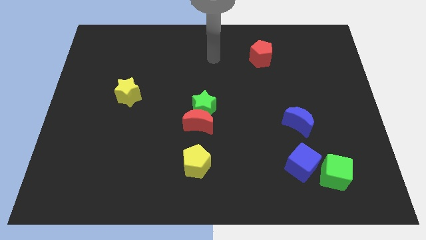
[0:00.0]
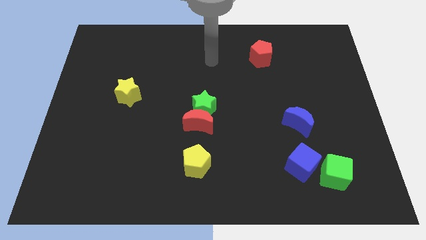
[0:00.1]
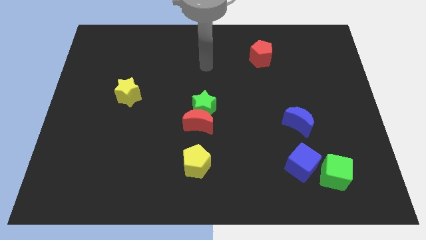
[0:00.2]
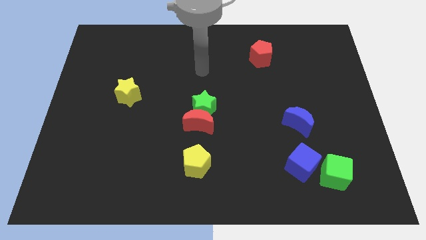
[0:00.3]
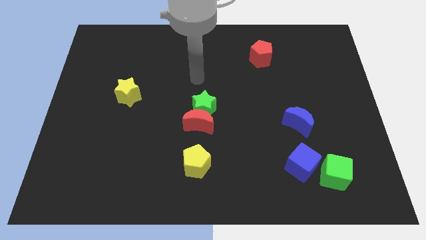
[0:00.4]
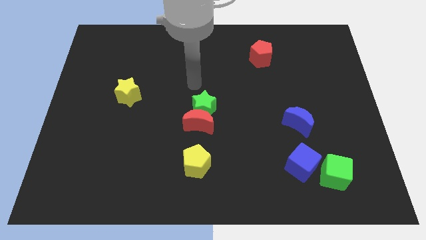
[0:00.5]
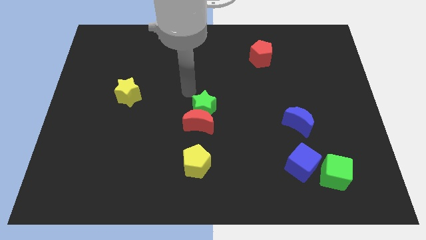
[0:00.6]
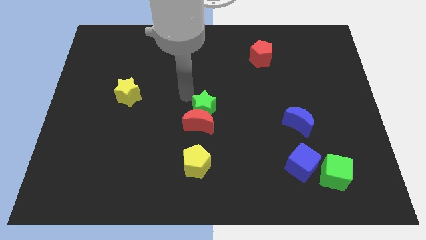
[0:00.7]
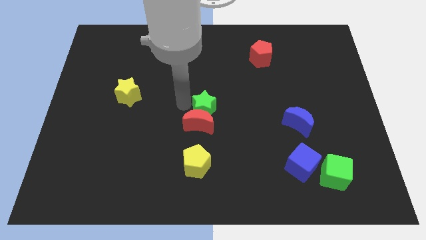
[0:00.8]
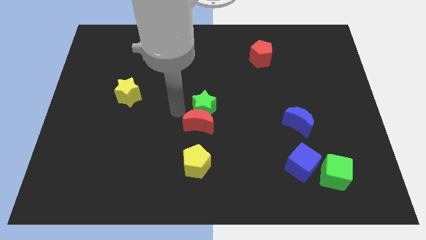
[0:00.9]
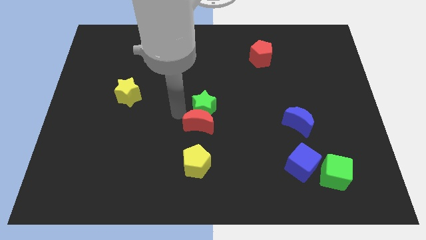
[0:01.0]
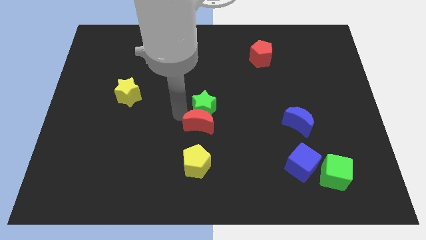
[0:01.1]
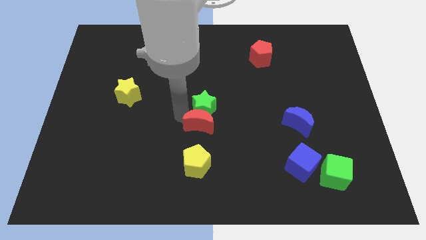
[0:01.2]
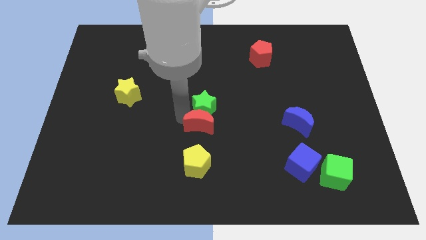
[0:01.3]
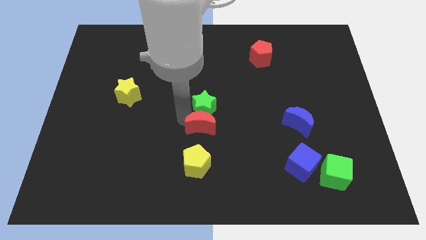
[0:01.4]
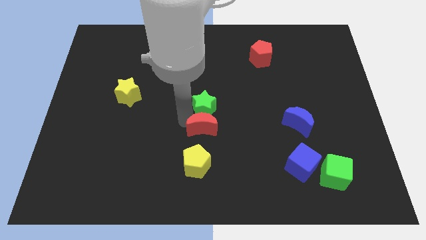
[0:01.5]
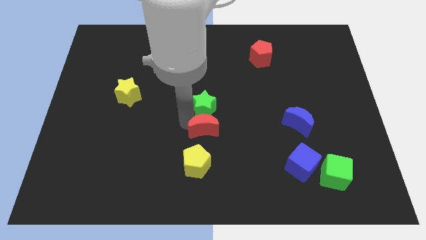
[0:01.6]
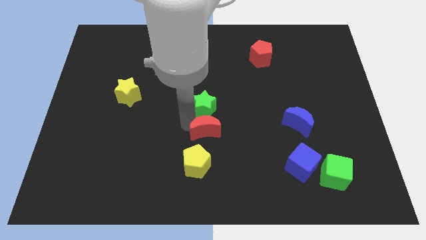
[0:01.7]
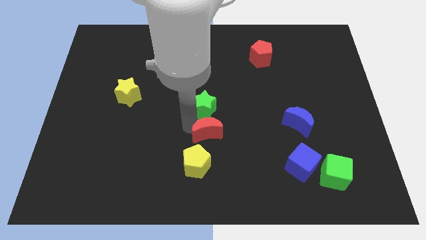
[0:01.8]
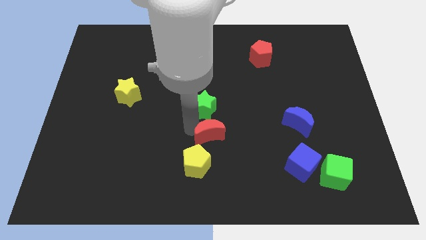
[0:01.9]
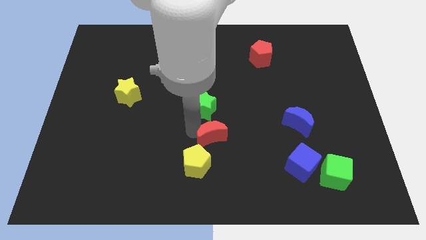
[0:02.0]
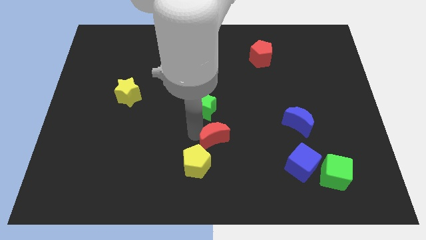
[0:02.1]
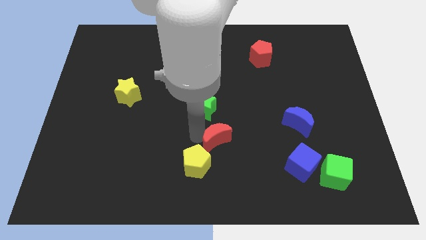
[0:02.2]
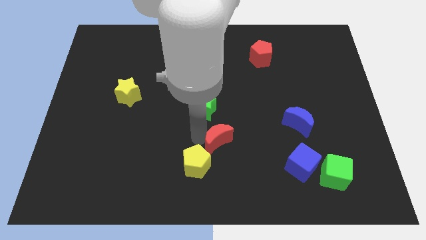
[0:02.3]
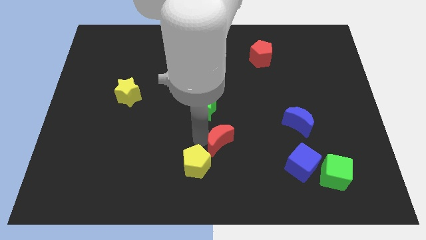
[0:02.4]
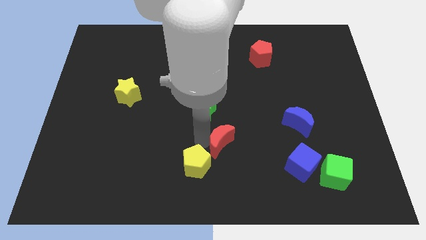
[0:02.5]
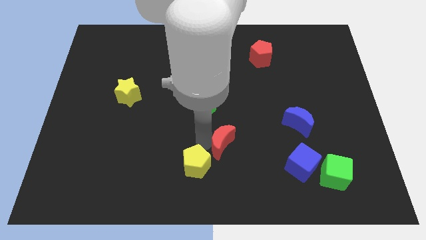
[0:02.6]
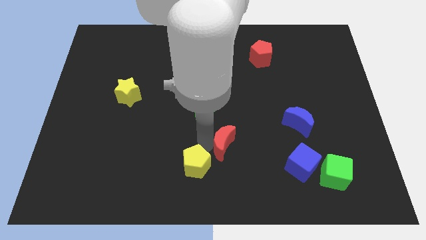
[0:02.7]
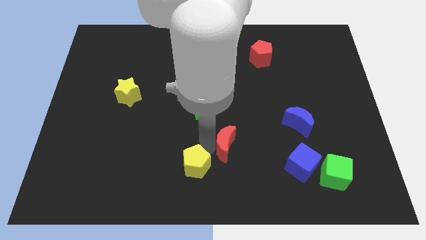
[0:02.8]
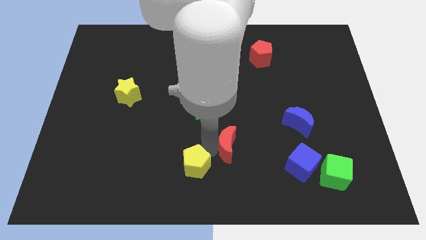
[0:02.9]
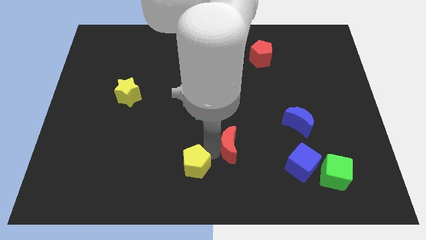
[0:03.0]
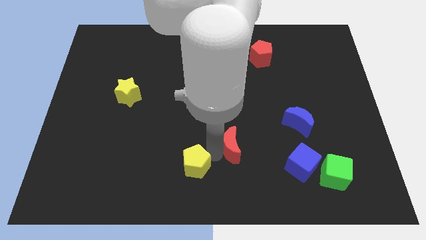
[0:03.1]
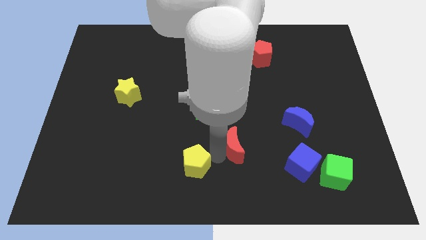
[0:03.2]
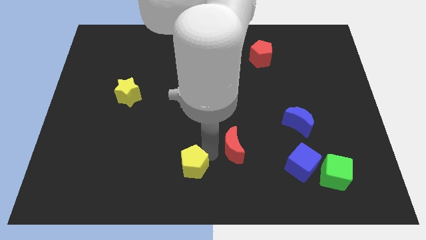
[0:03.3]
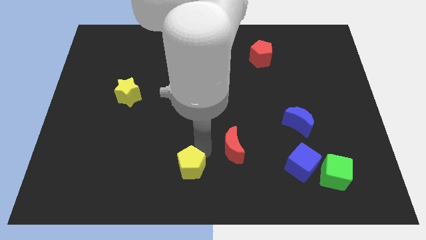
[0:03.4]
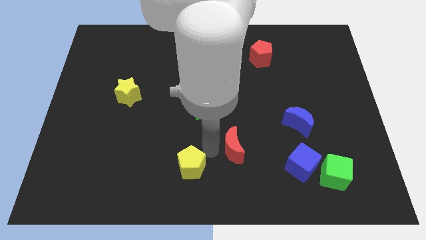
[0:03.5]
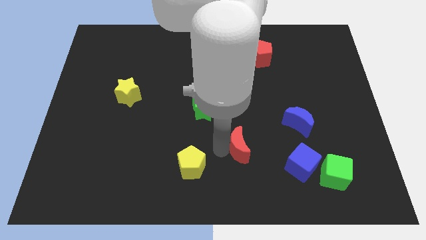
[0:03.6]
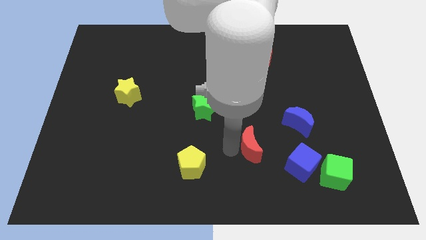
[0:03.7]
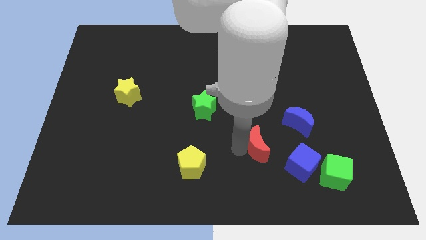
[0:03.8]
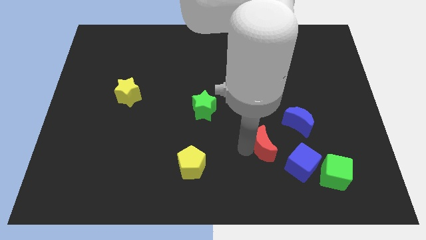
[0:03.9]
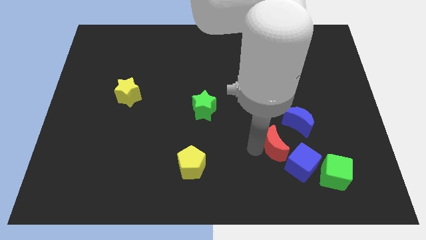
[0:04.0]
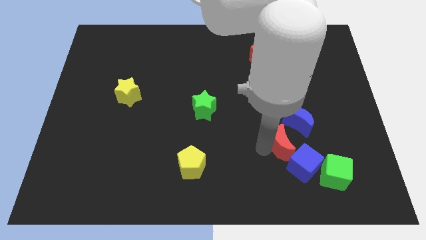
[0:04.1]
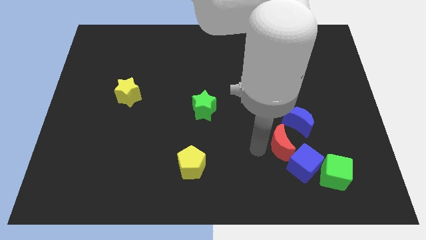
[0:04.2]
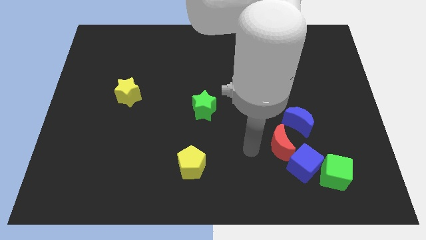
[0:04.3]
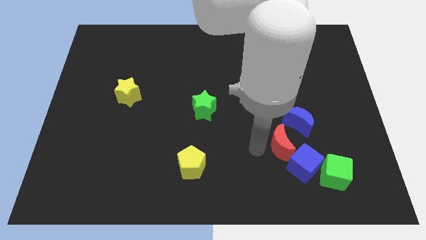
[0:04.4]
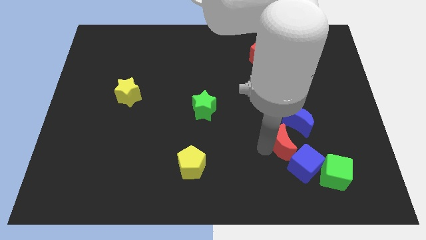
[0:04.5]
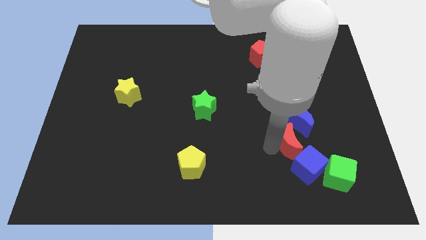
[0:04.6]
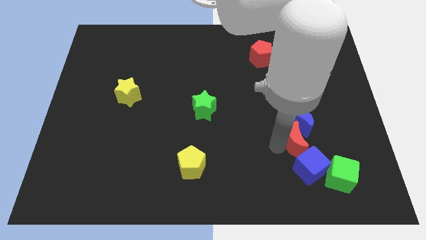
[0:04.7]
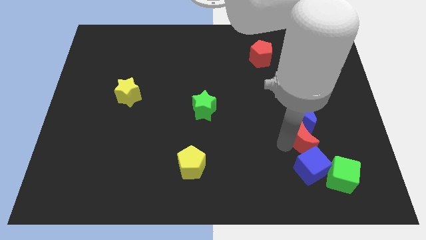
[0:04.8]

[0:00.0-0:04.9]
move the red moon to the bottom right of the blue moon

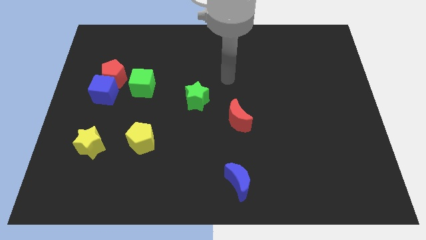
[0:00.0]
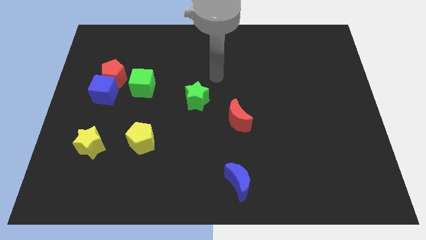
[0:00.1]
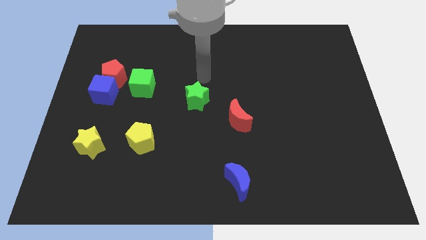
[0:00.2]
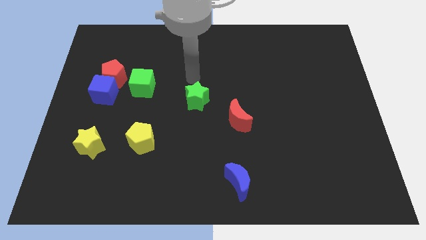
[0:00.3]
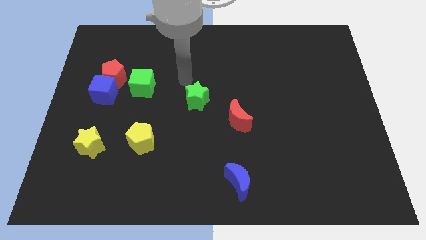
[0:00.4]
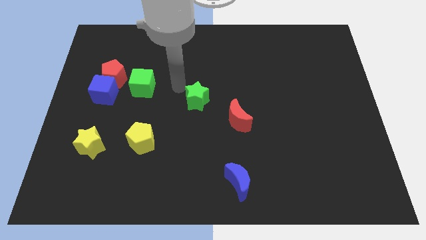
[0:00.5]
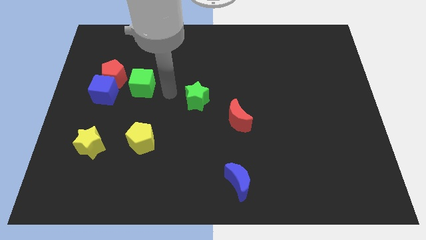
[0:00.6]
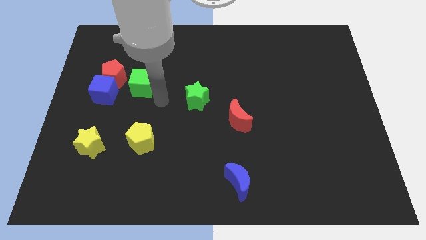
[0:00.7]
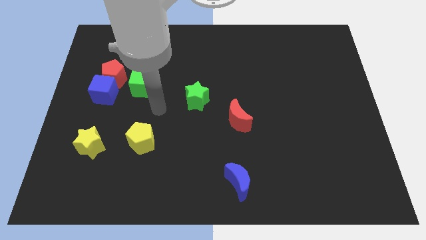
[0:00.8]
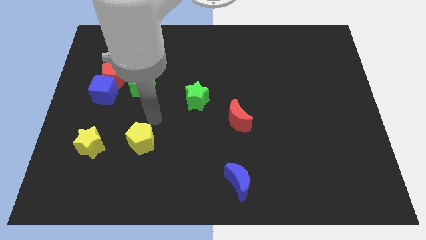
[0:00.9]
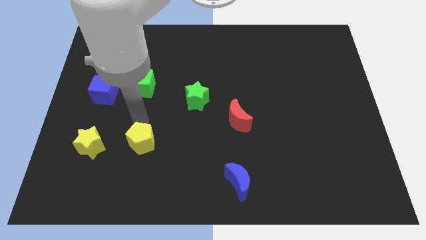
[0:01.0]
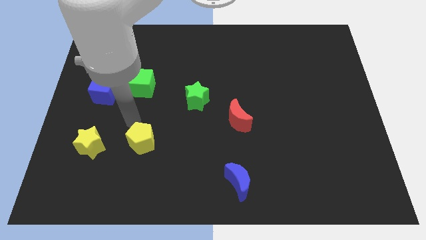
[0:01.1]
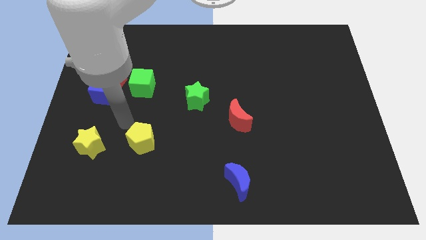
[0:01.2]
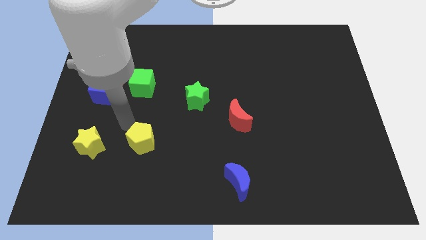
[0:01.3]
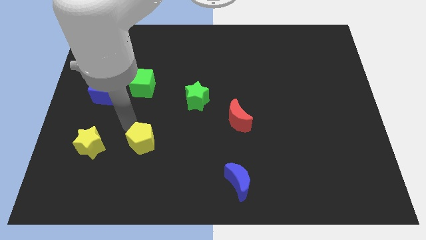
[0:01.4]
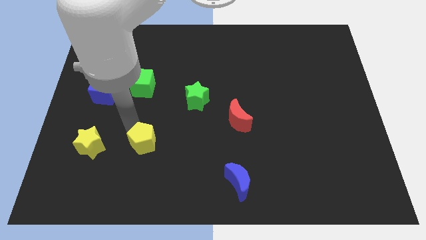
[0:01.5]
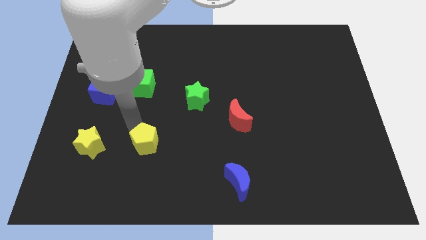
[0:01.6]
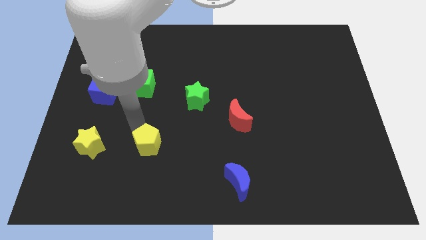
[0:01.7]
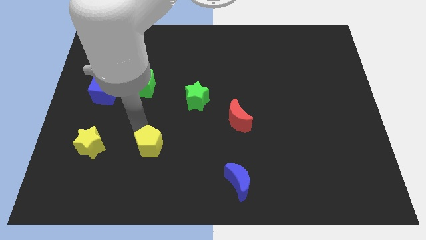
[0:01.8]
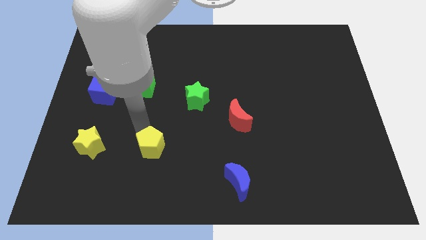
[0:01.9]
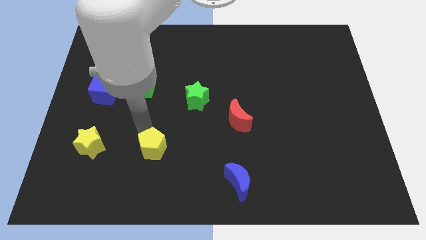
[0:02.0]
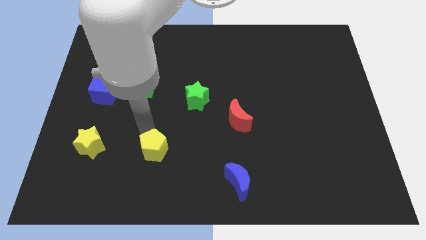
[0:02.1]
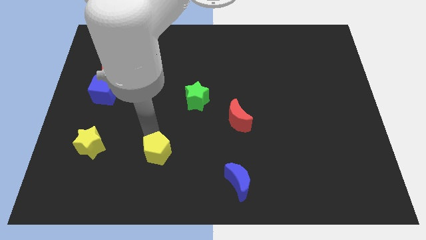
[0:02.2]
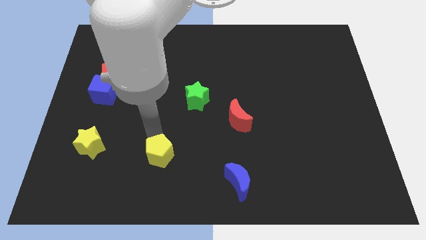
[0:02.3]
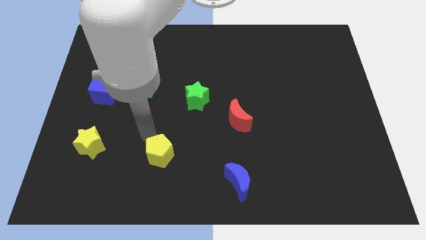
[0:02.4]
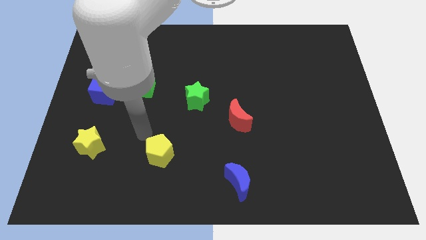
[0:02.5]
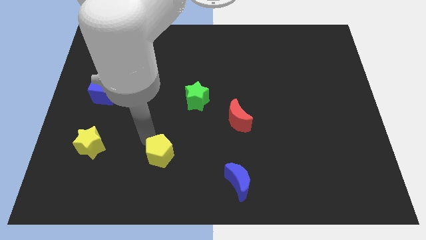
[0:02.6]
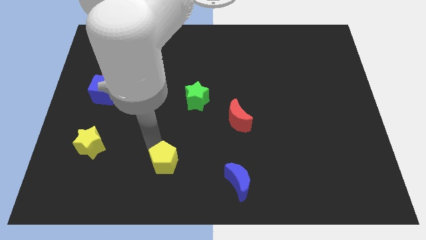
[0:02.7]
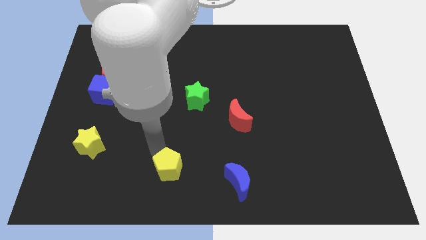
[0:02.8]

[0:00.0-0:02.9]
slide the yellow pentagon to the left side of the blue moon
